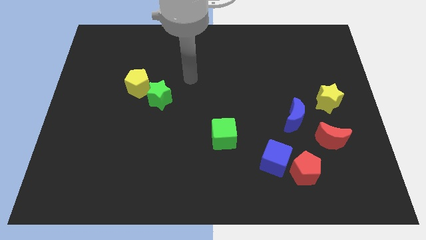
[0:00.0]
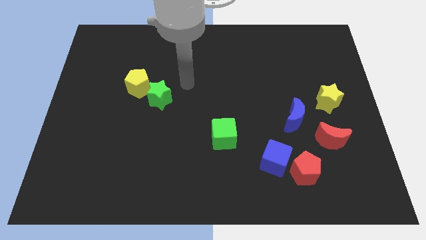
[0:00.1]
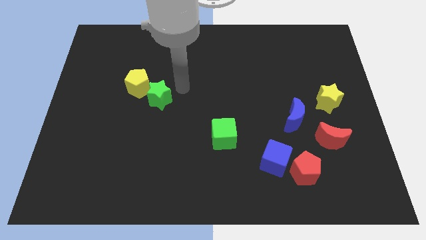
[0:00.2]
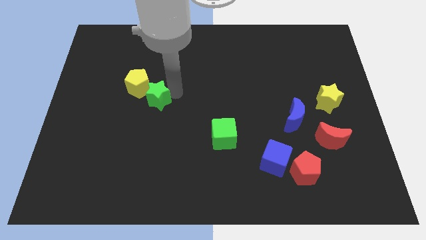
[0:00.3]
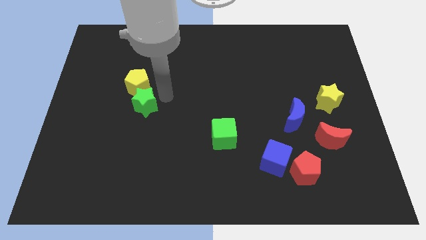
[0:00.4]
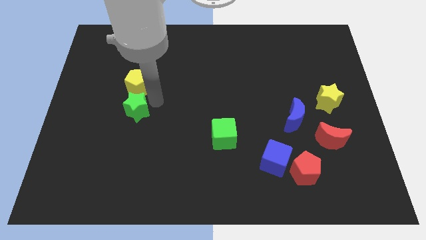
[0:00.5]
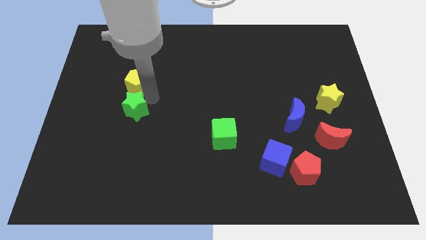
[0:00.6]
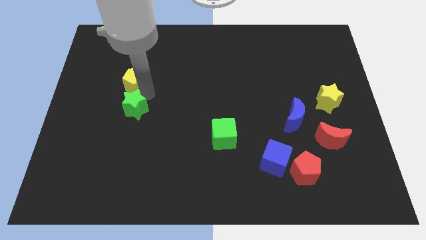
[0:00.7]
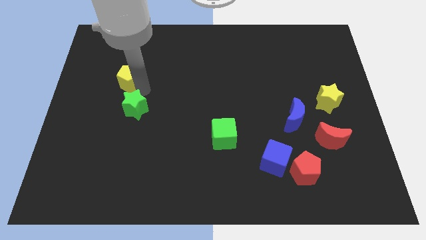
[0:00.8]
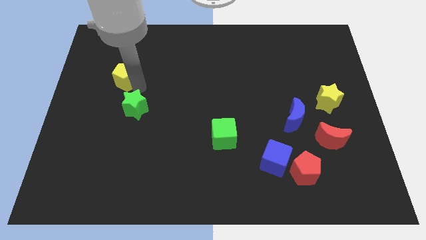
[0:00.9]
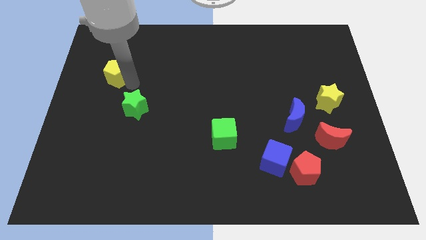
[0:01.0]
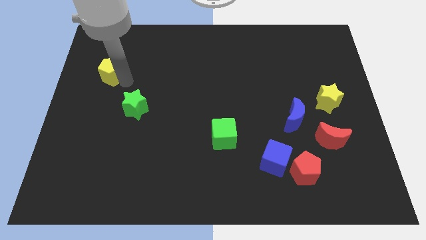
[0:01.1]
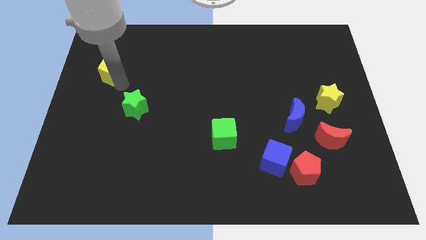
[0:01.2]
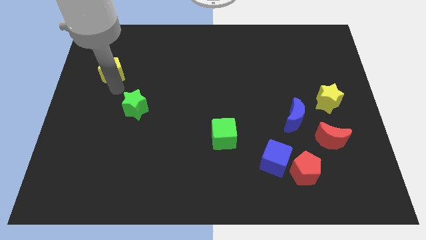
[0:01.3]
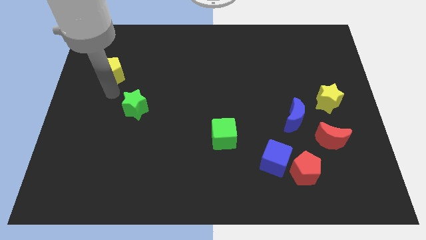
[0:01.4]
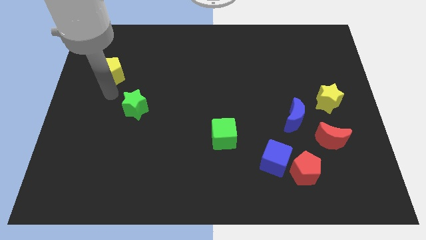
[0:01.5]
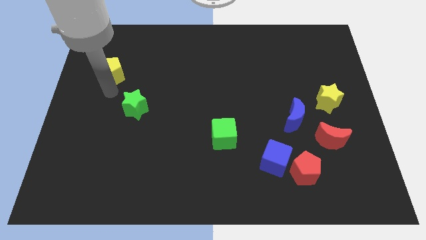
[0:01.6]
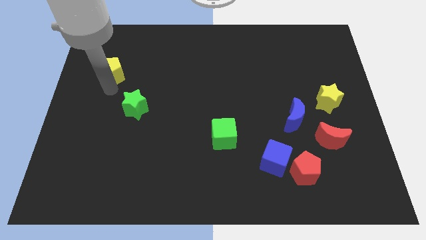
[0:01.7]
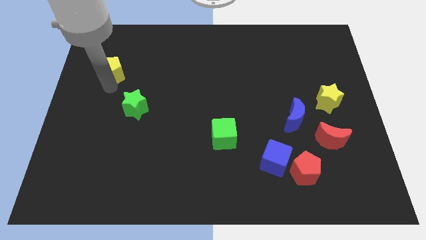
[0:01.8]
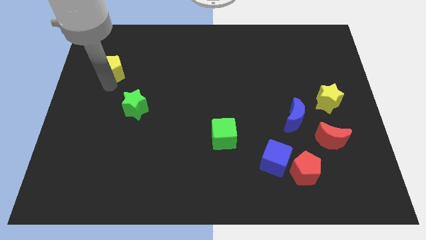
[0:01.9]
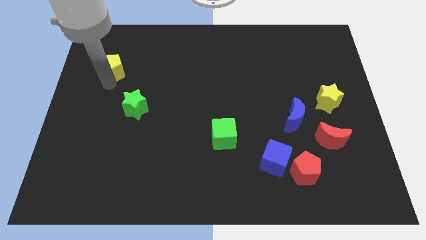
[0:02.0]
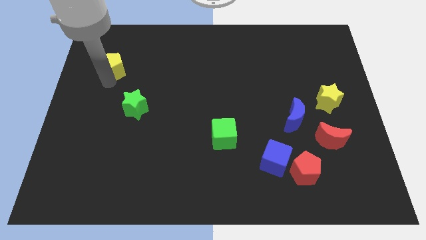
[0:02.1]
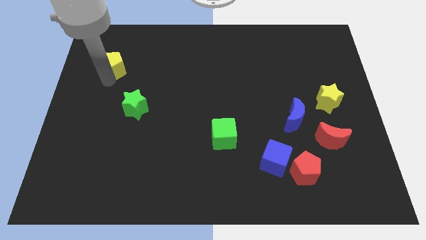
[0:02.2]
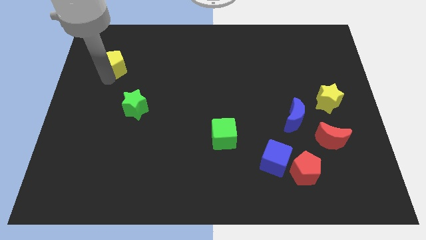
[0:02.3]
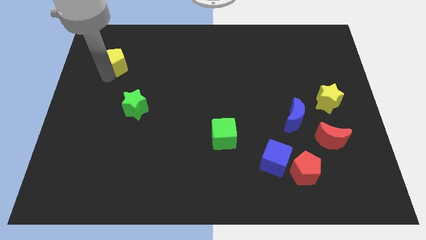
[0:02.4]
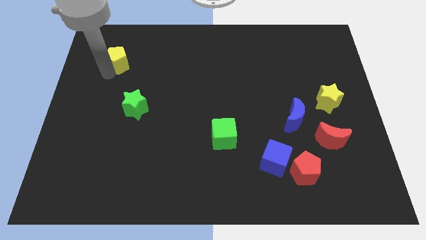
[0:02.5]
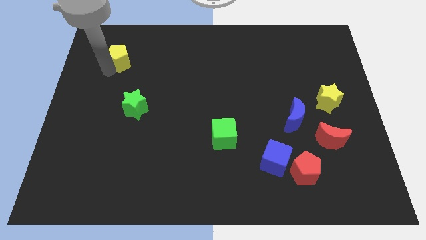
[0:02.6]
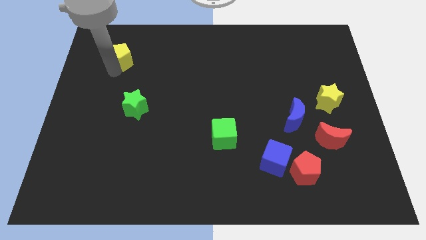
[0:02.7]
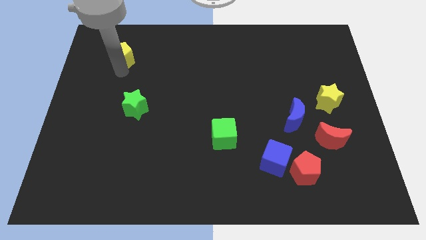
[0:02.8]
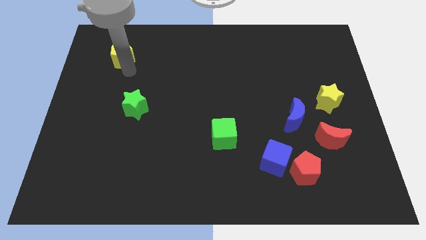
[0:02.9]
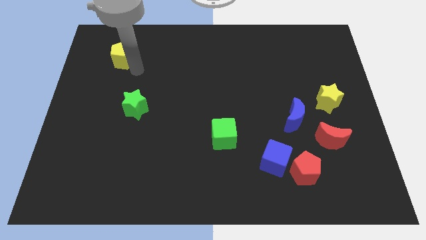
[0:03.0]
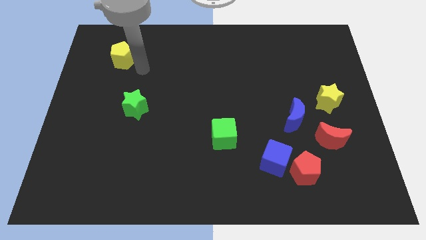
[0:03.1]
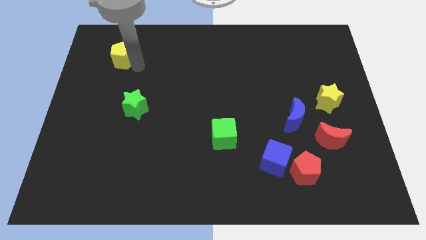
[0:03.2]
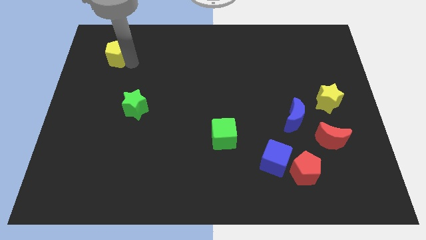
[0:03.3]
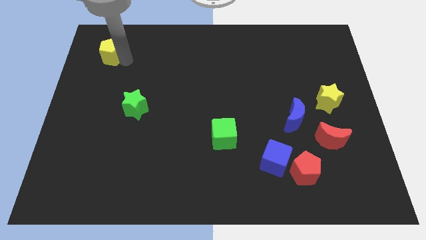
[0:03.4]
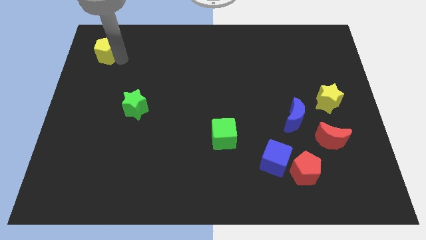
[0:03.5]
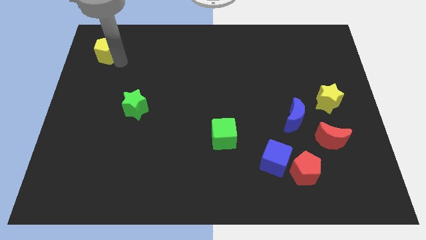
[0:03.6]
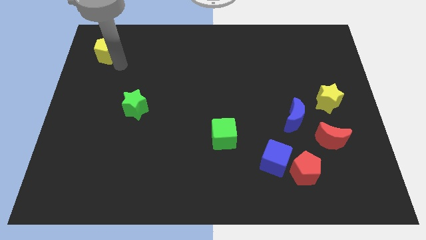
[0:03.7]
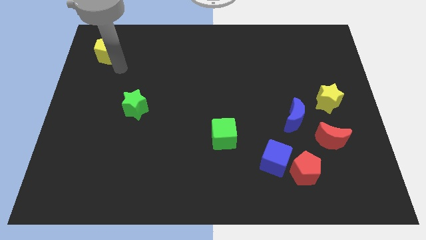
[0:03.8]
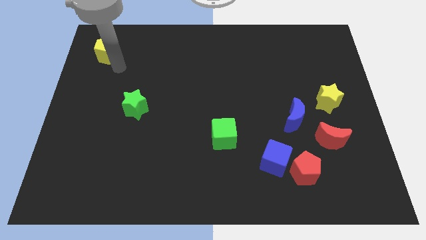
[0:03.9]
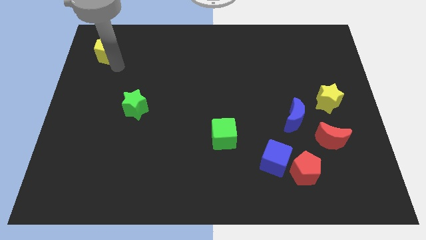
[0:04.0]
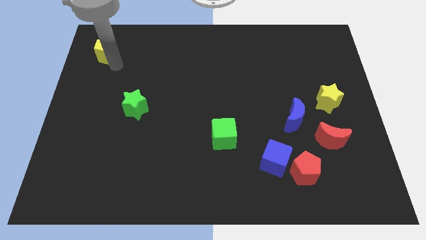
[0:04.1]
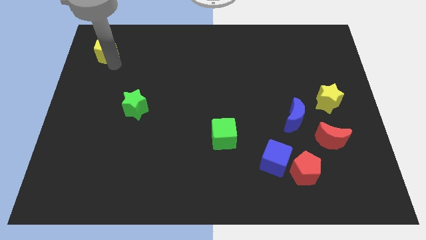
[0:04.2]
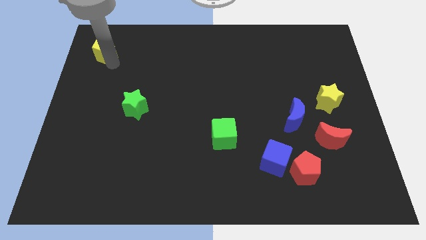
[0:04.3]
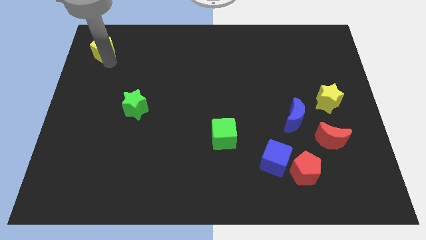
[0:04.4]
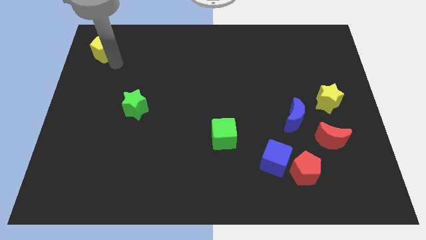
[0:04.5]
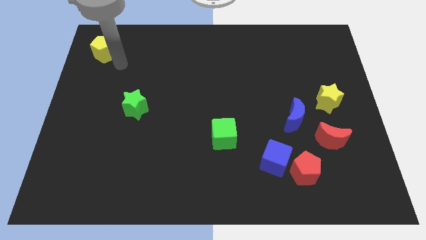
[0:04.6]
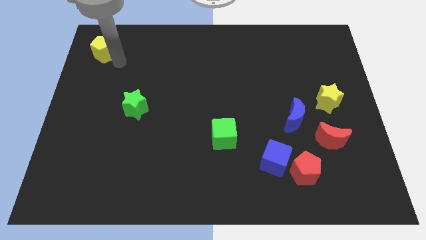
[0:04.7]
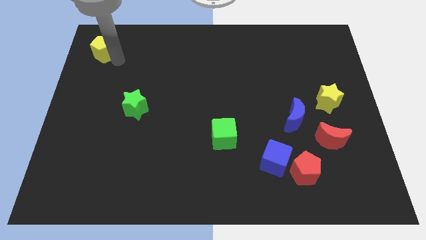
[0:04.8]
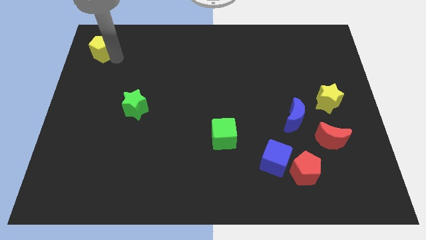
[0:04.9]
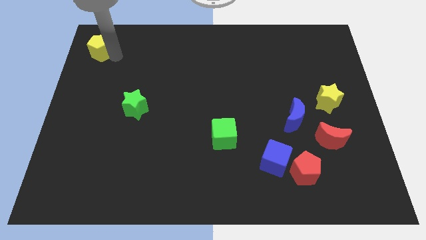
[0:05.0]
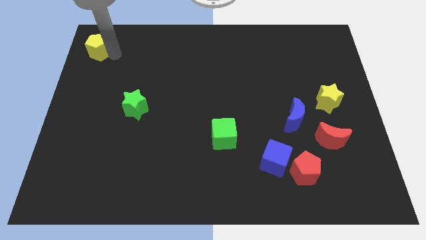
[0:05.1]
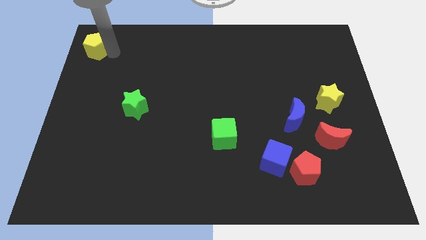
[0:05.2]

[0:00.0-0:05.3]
move the yellow pentagon to the top left

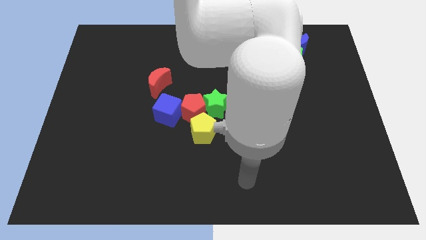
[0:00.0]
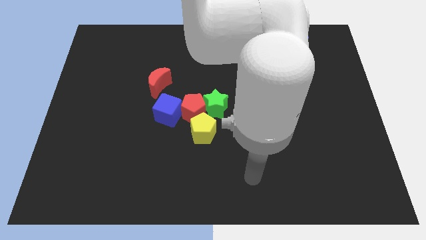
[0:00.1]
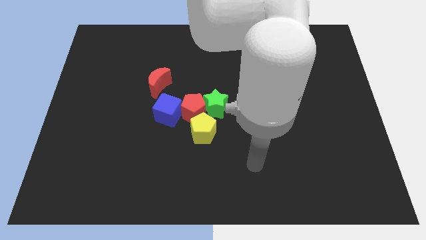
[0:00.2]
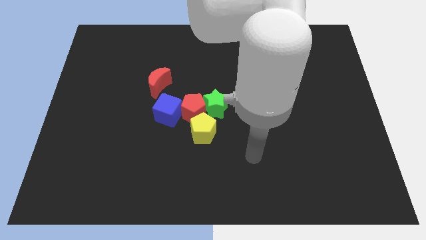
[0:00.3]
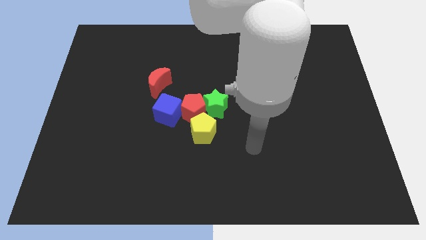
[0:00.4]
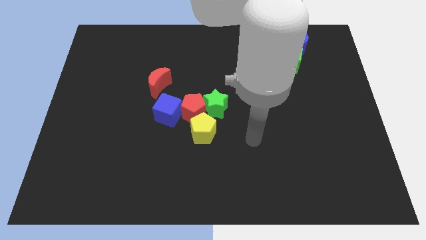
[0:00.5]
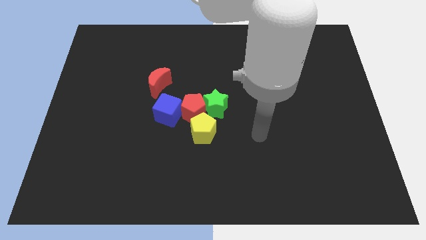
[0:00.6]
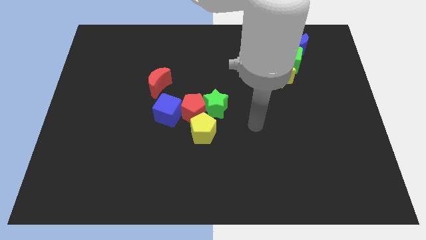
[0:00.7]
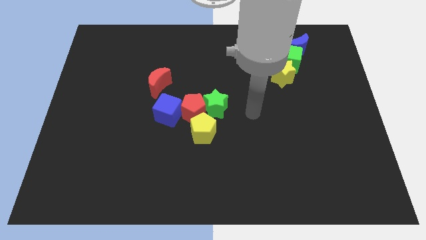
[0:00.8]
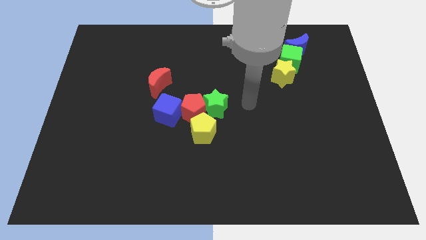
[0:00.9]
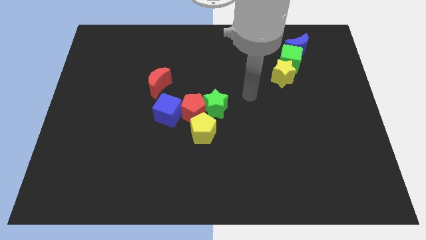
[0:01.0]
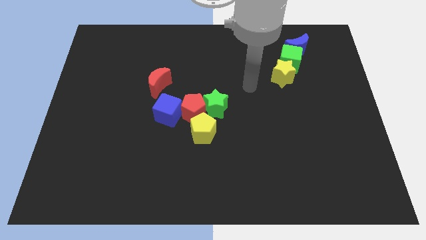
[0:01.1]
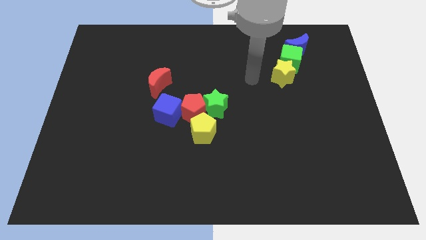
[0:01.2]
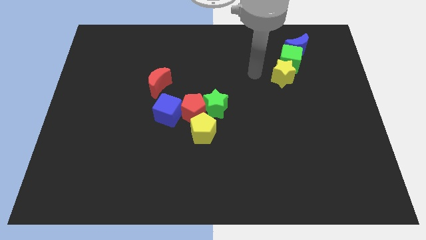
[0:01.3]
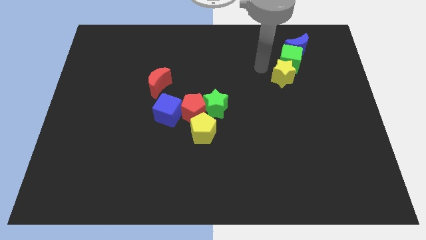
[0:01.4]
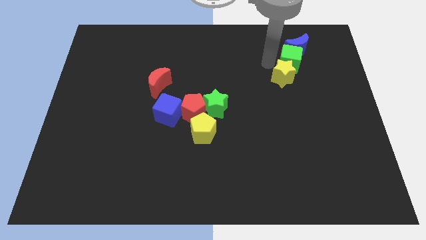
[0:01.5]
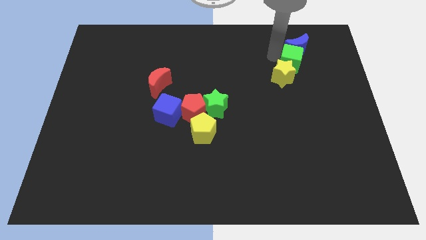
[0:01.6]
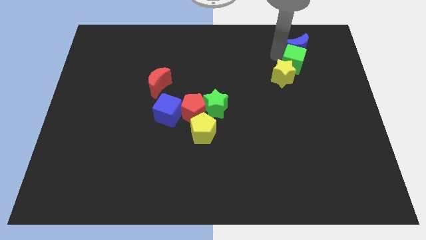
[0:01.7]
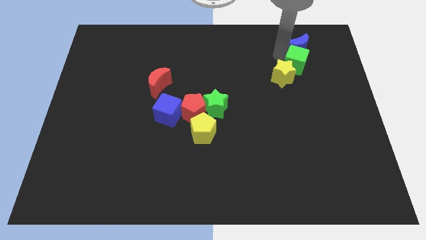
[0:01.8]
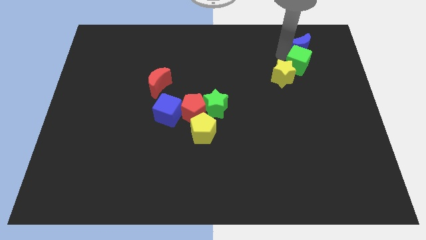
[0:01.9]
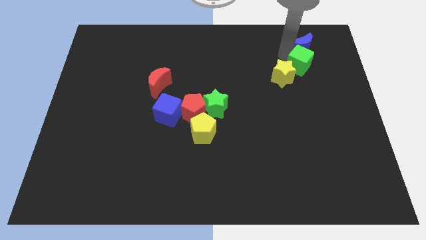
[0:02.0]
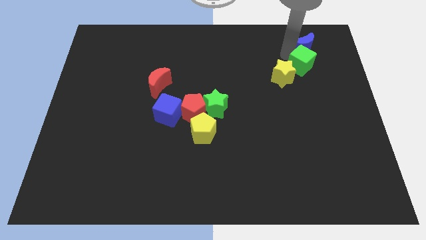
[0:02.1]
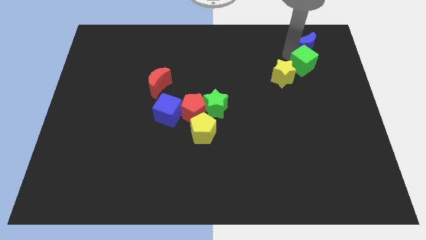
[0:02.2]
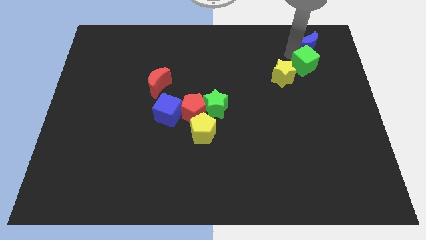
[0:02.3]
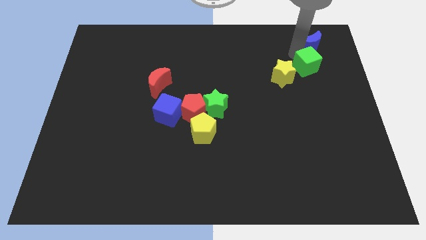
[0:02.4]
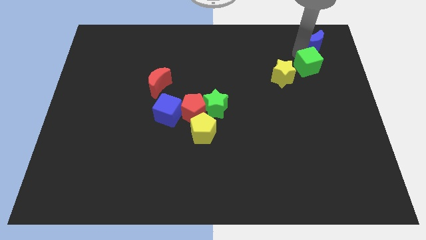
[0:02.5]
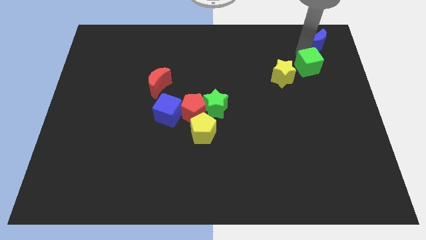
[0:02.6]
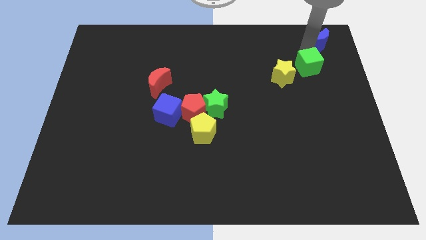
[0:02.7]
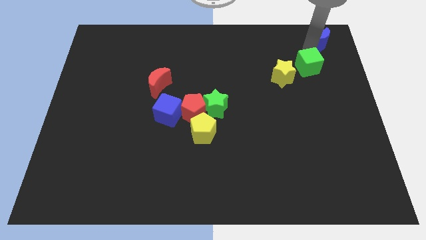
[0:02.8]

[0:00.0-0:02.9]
put the blue moon to the top right corner
